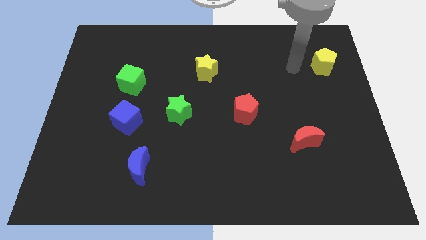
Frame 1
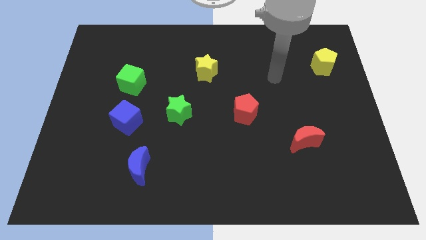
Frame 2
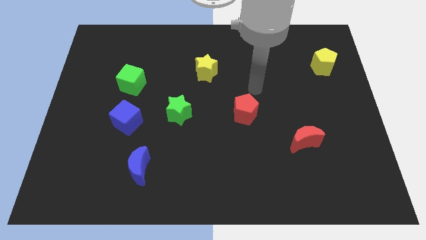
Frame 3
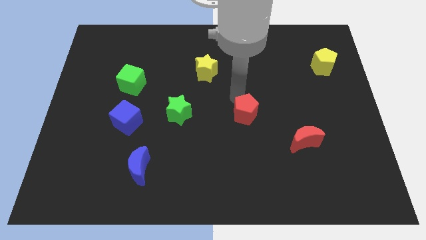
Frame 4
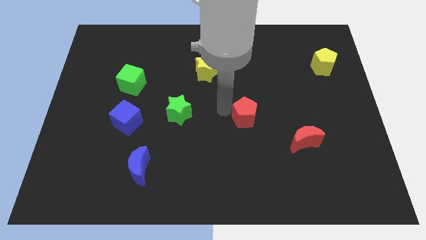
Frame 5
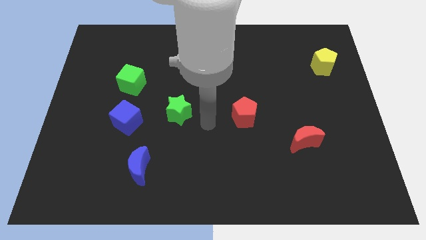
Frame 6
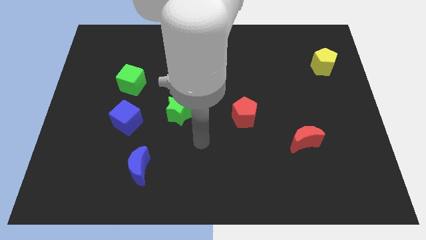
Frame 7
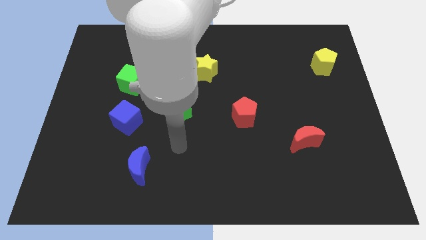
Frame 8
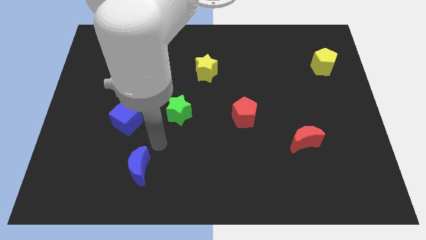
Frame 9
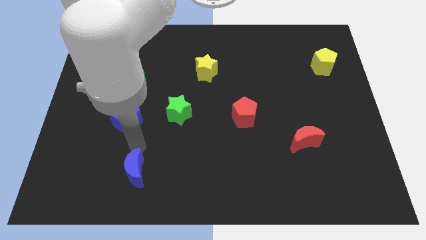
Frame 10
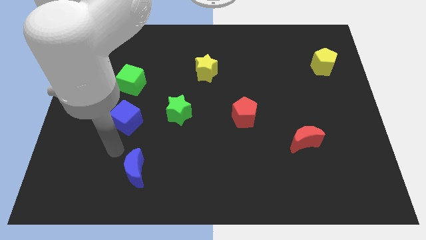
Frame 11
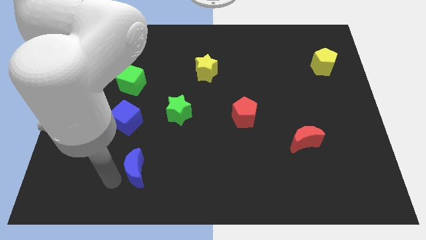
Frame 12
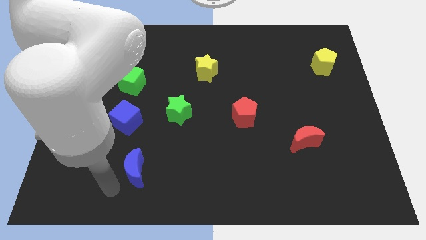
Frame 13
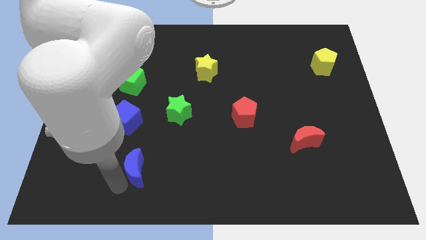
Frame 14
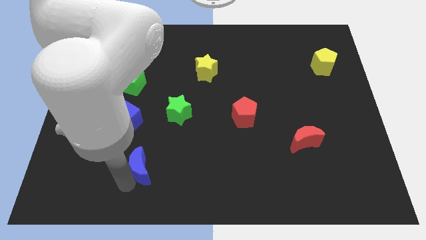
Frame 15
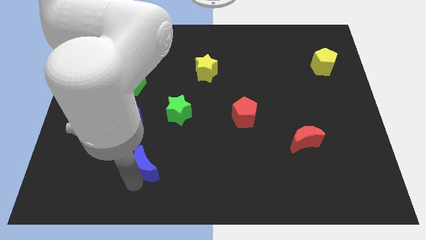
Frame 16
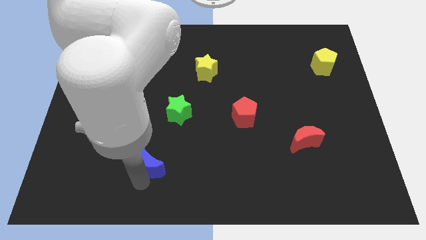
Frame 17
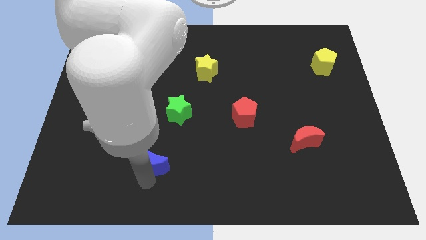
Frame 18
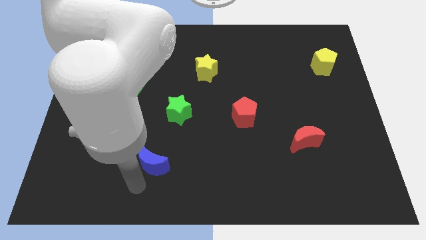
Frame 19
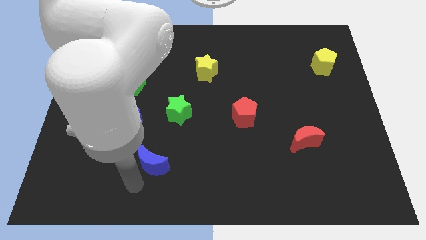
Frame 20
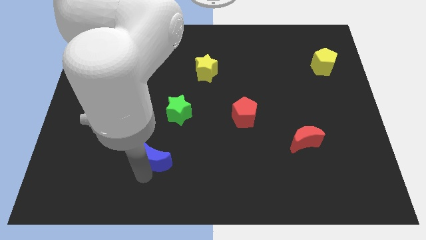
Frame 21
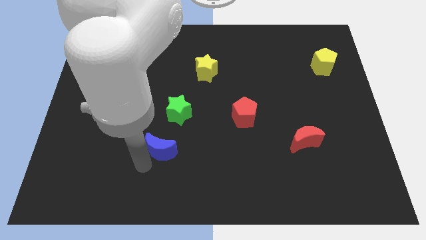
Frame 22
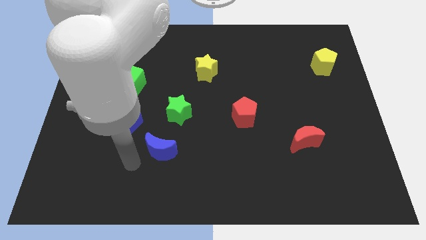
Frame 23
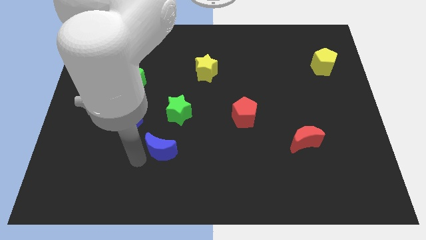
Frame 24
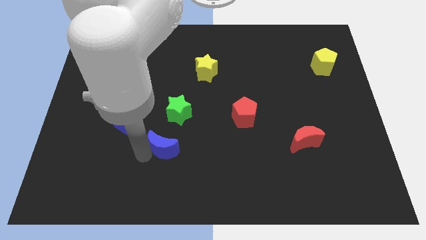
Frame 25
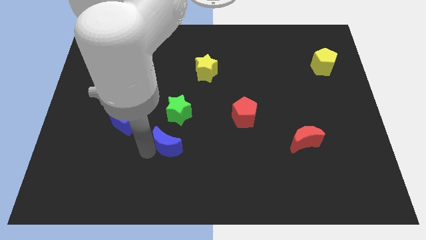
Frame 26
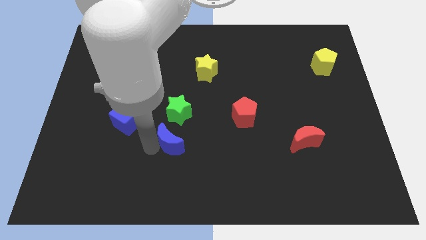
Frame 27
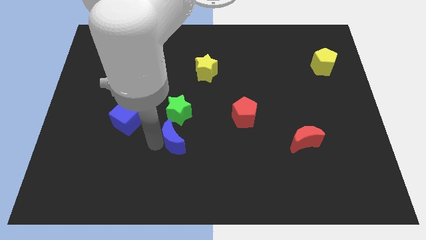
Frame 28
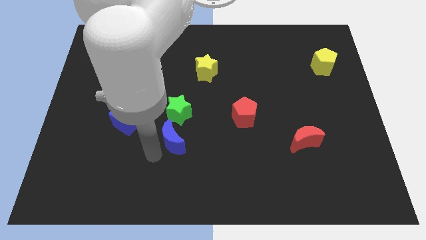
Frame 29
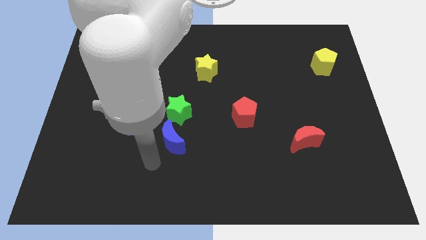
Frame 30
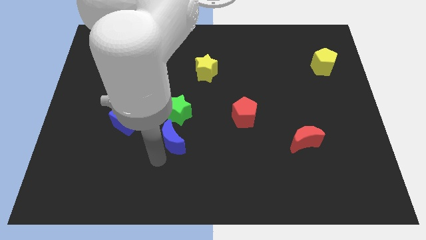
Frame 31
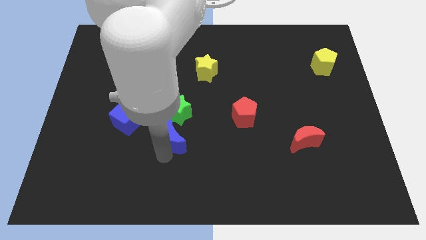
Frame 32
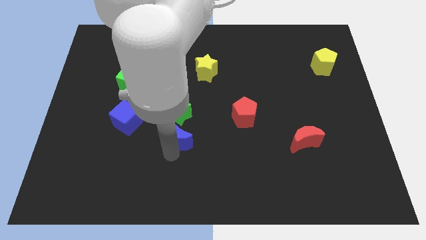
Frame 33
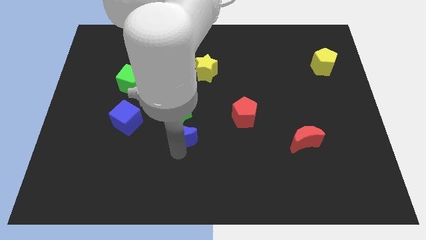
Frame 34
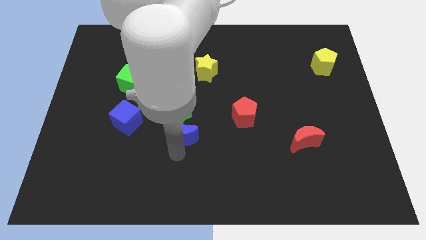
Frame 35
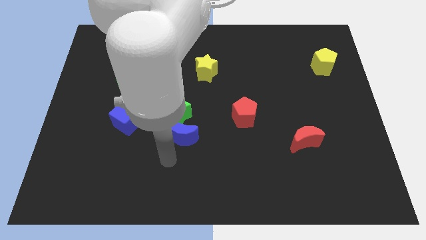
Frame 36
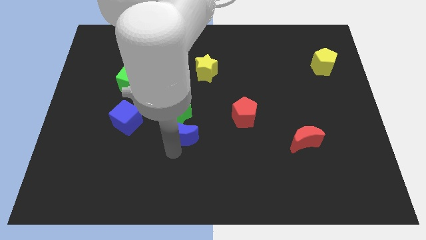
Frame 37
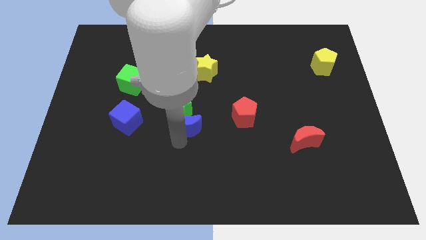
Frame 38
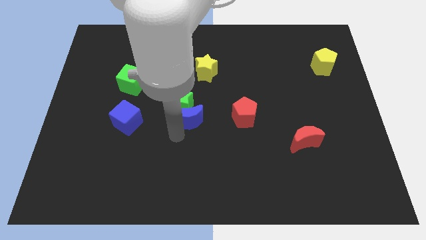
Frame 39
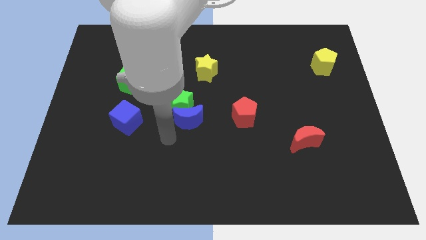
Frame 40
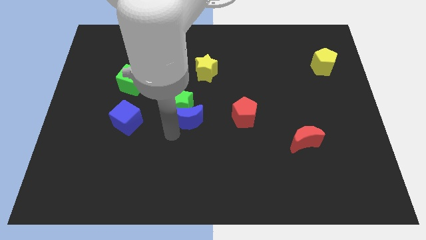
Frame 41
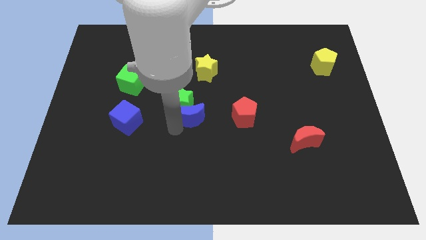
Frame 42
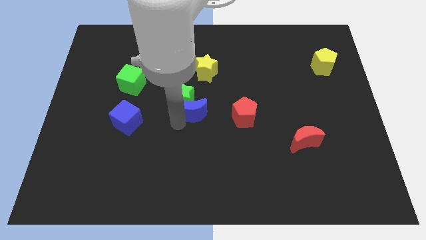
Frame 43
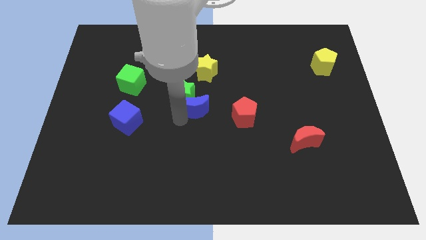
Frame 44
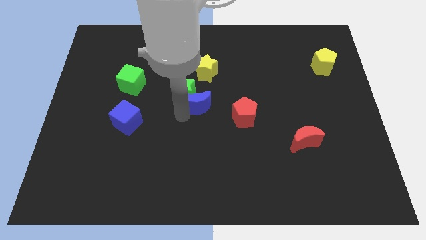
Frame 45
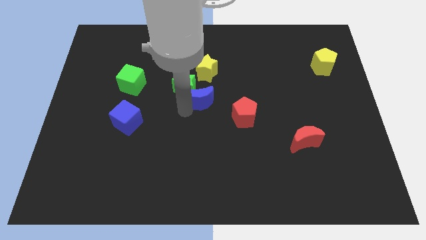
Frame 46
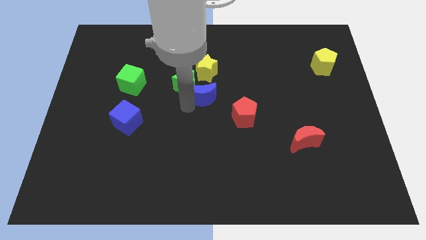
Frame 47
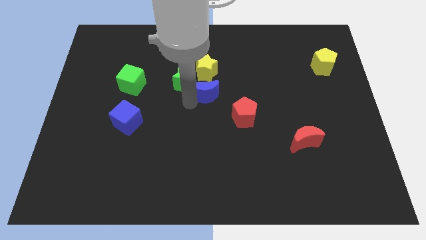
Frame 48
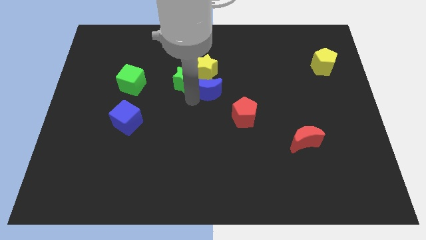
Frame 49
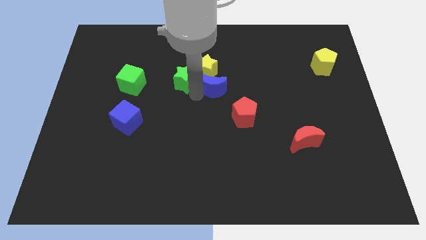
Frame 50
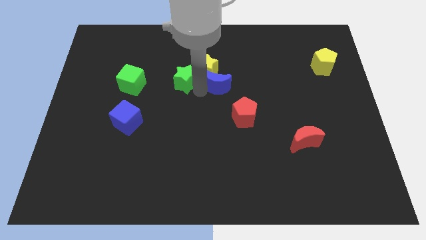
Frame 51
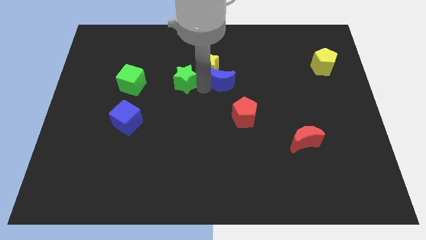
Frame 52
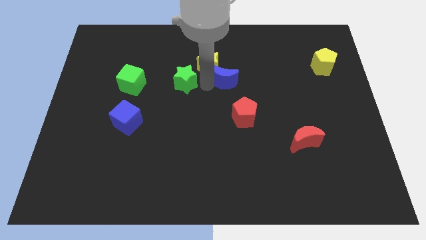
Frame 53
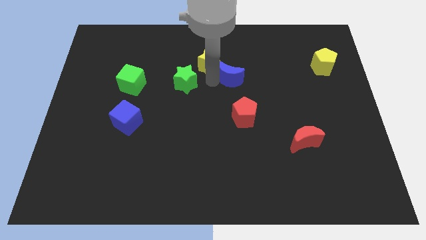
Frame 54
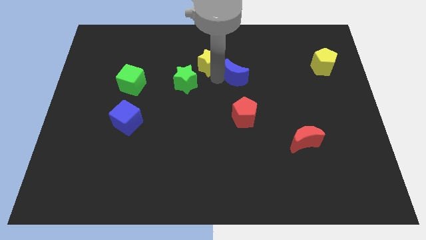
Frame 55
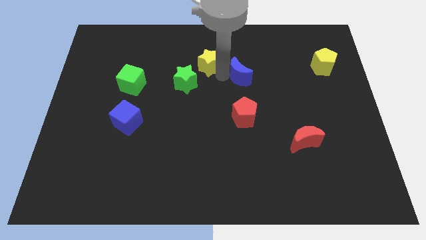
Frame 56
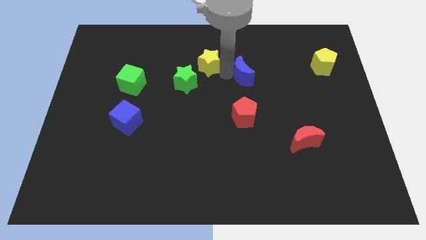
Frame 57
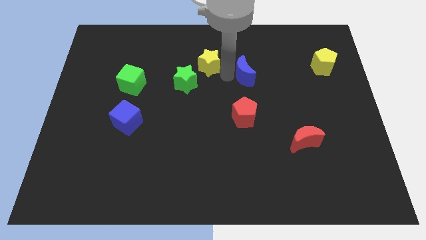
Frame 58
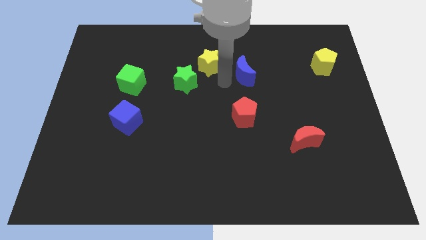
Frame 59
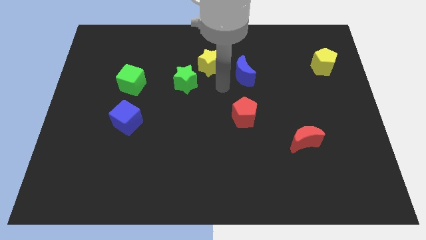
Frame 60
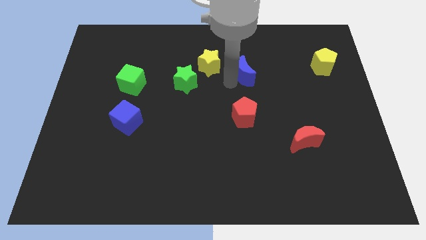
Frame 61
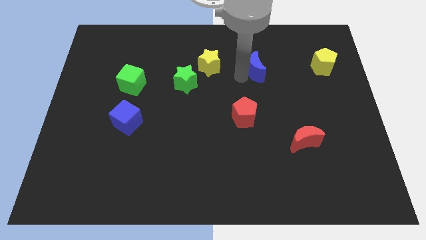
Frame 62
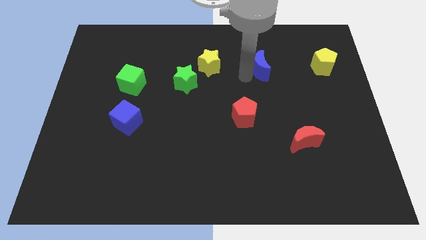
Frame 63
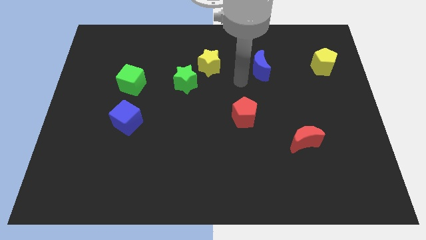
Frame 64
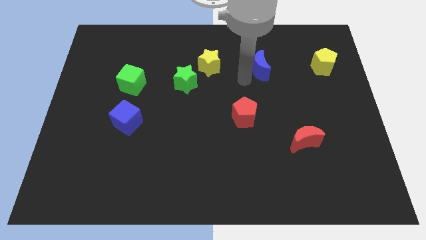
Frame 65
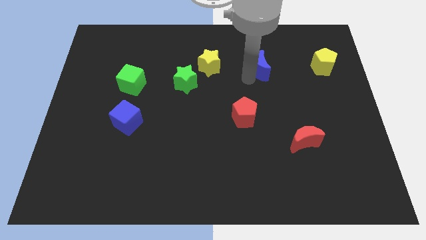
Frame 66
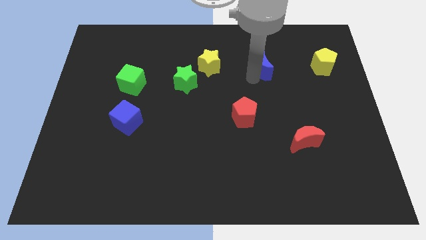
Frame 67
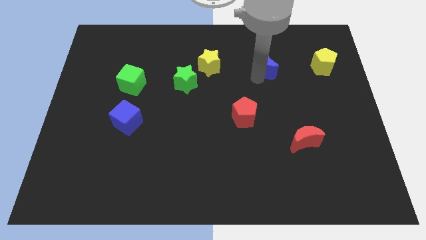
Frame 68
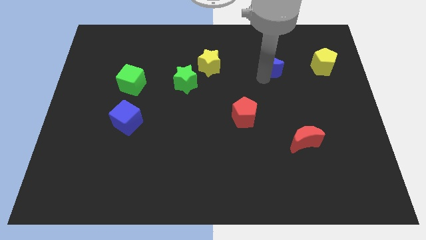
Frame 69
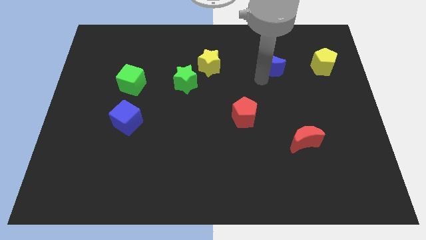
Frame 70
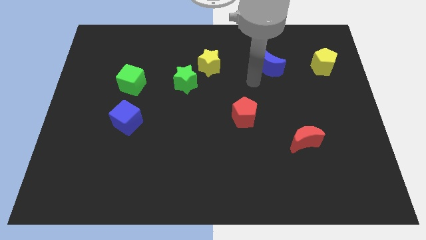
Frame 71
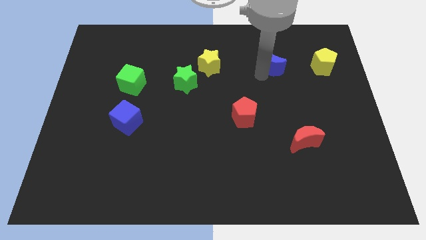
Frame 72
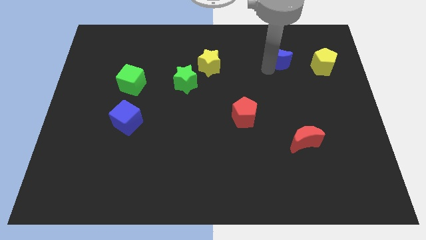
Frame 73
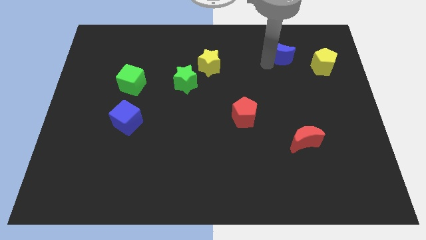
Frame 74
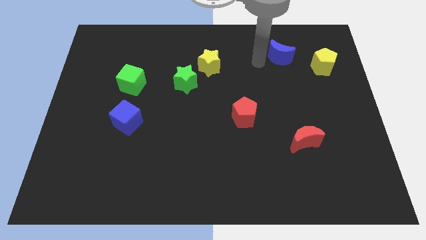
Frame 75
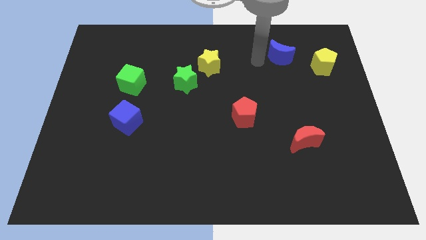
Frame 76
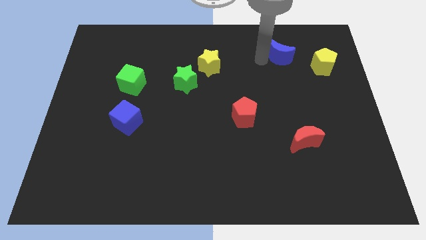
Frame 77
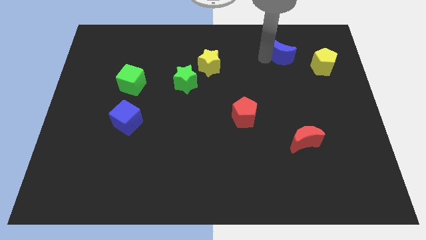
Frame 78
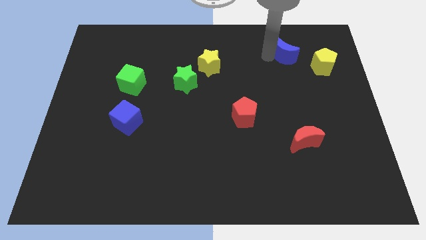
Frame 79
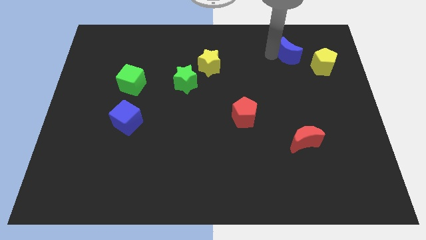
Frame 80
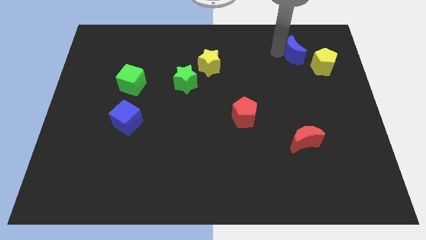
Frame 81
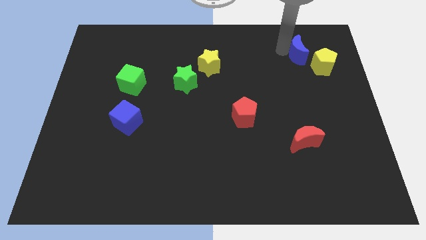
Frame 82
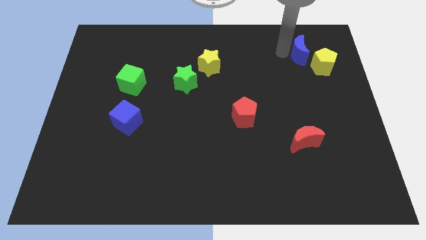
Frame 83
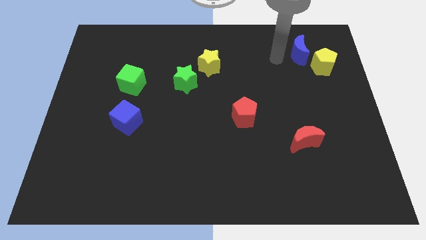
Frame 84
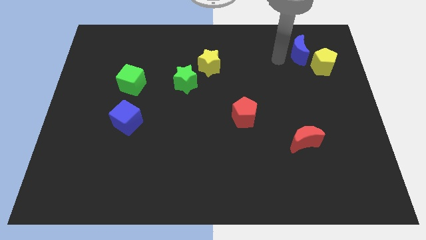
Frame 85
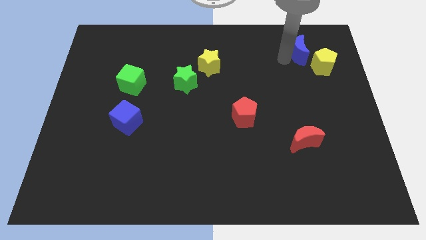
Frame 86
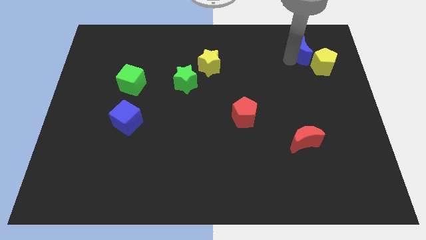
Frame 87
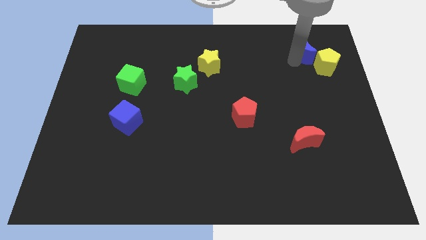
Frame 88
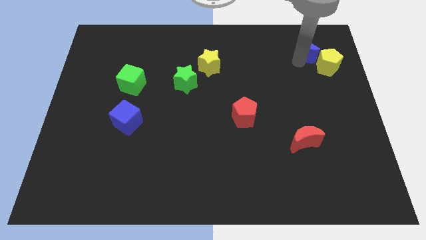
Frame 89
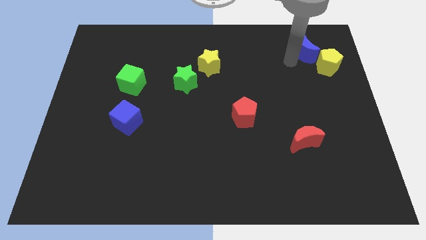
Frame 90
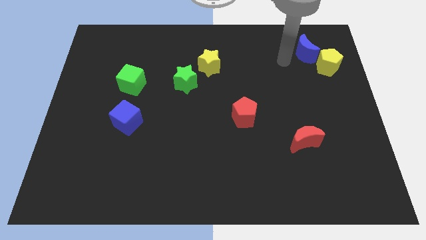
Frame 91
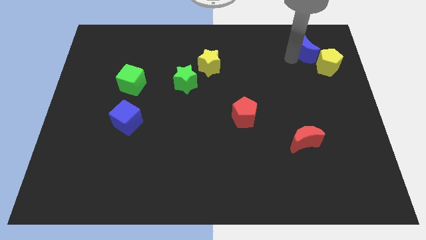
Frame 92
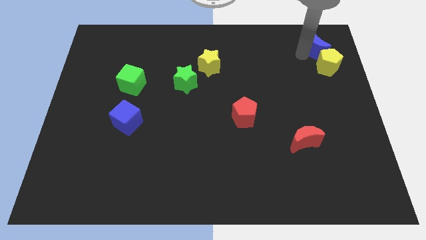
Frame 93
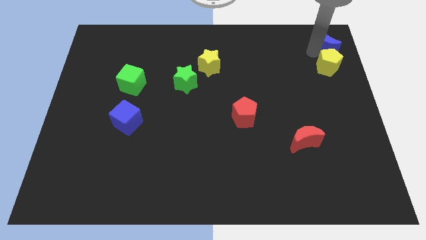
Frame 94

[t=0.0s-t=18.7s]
move the blue moon to the top right
